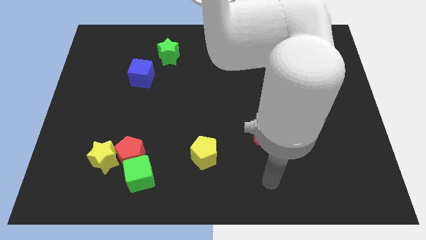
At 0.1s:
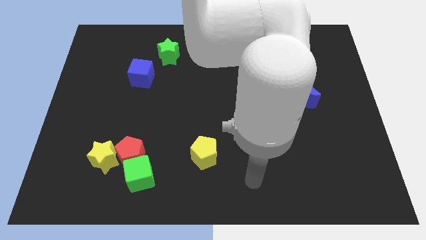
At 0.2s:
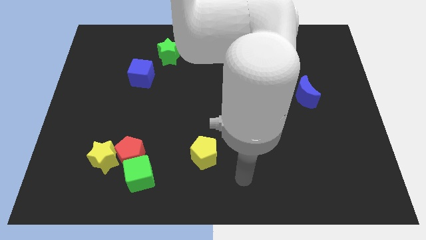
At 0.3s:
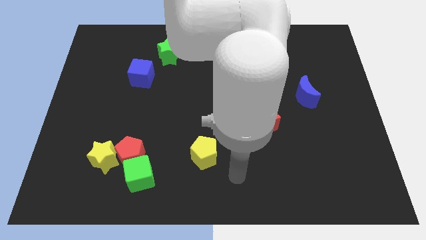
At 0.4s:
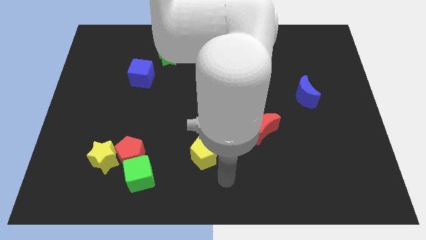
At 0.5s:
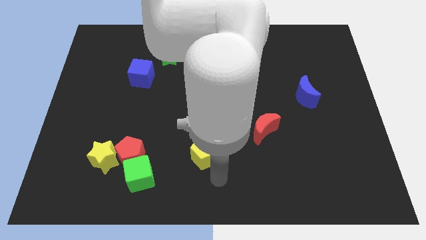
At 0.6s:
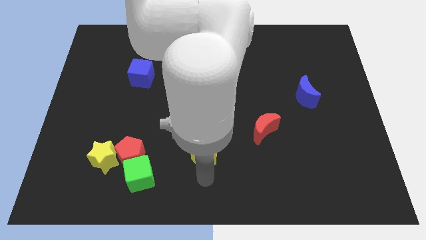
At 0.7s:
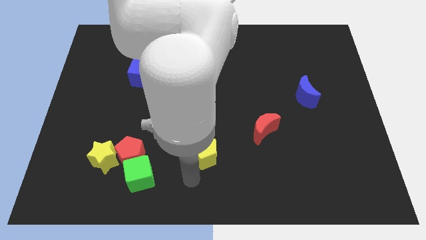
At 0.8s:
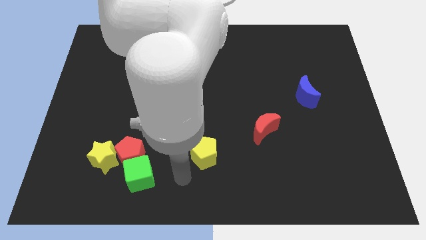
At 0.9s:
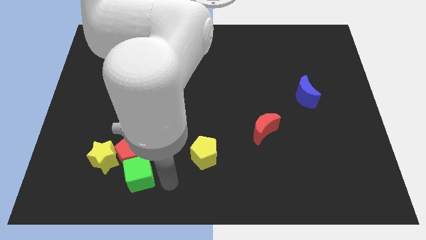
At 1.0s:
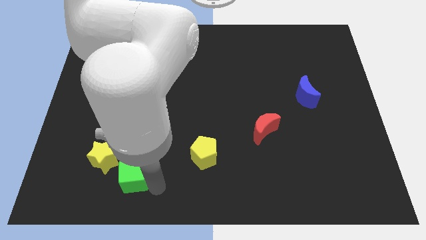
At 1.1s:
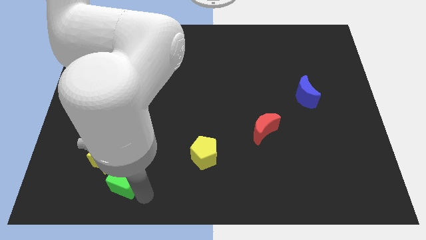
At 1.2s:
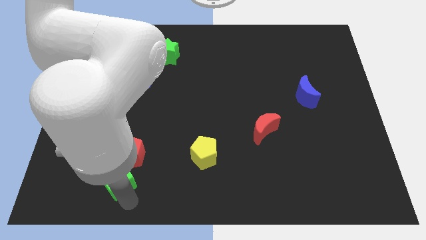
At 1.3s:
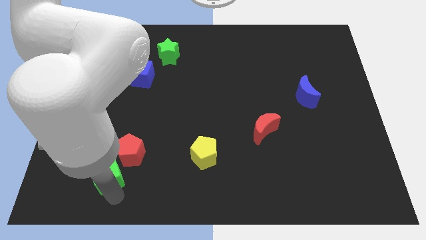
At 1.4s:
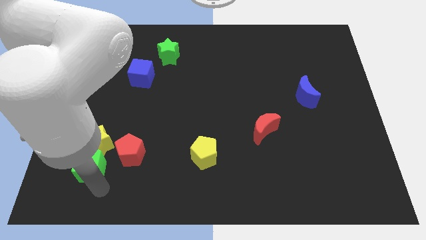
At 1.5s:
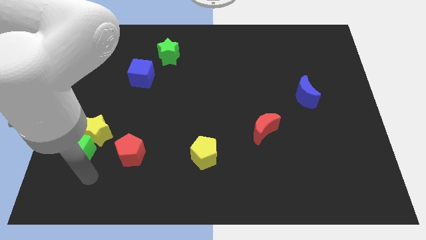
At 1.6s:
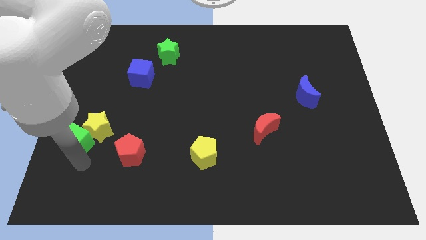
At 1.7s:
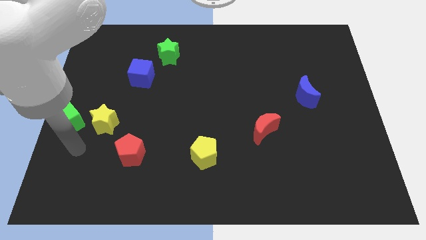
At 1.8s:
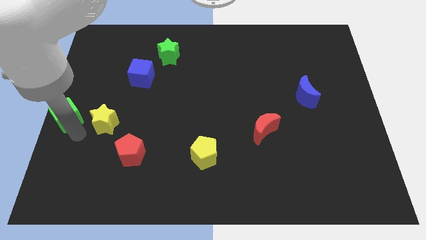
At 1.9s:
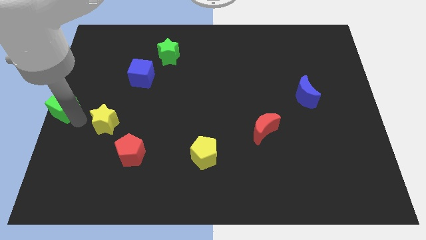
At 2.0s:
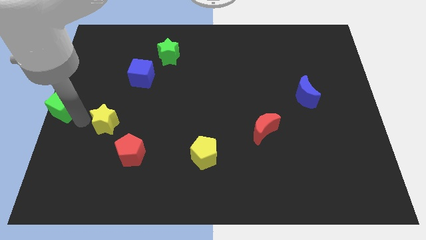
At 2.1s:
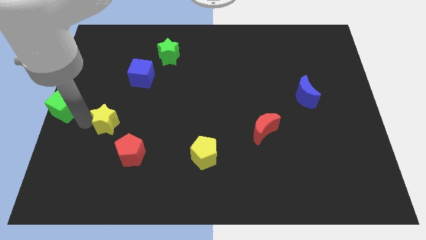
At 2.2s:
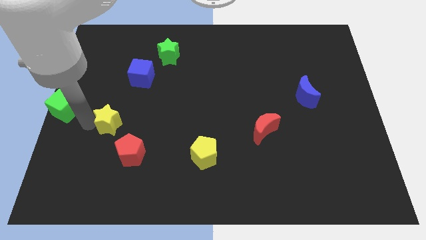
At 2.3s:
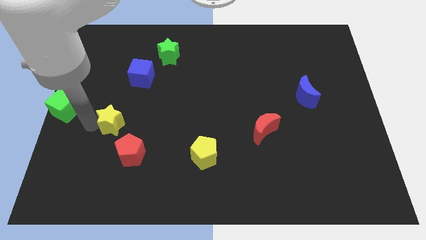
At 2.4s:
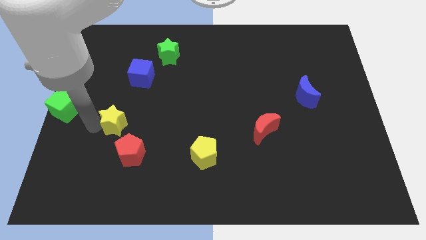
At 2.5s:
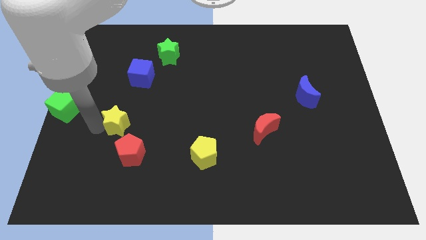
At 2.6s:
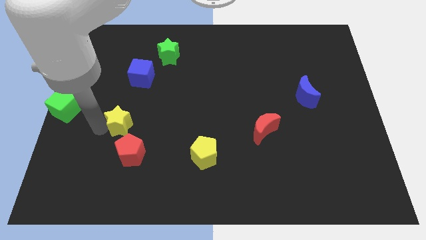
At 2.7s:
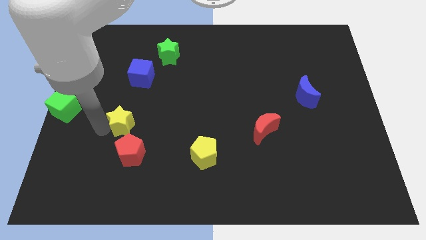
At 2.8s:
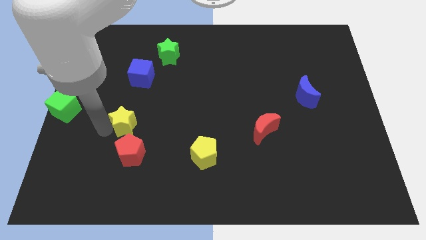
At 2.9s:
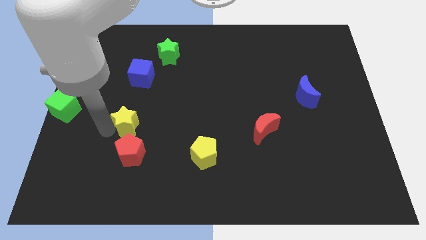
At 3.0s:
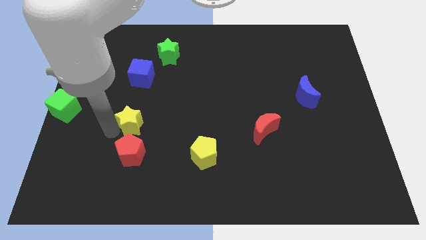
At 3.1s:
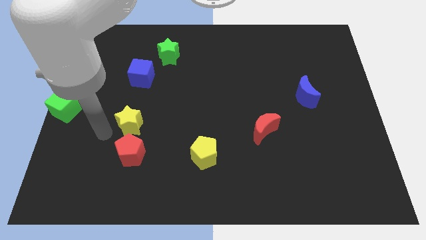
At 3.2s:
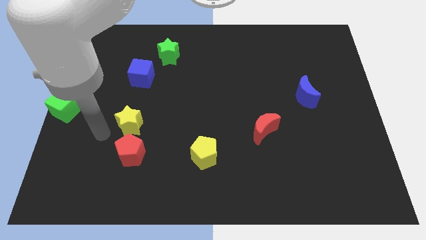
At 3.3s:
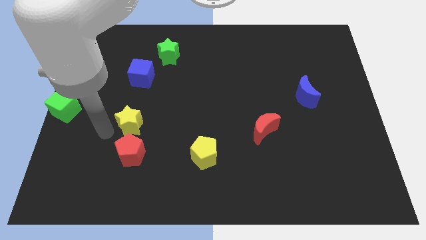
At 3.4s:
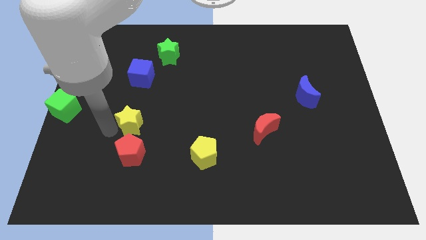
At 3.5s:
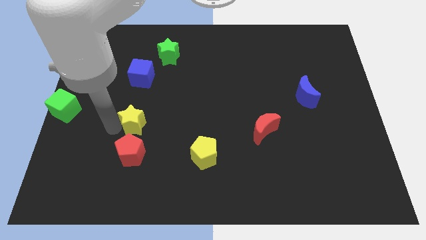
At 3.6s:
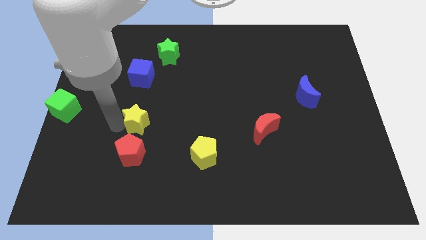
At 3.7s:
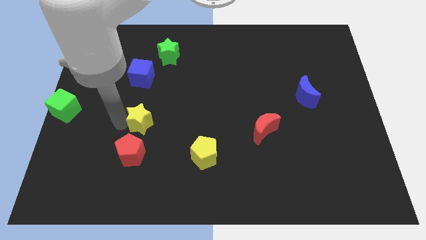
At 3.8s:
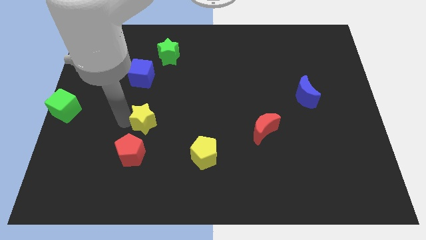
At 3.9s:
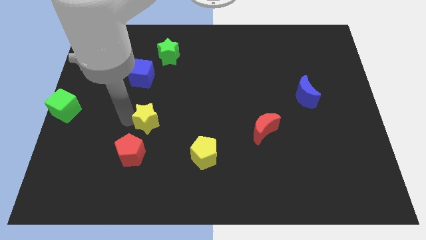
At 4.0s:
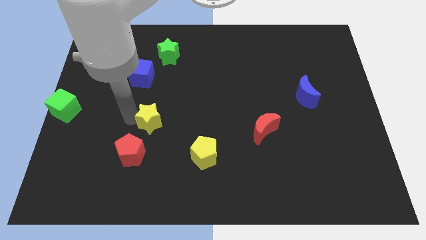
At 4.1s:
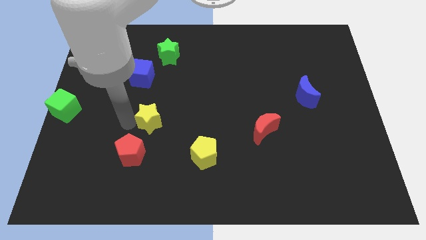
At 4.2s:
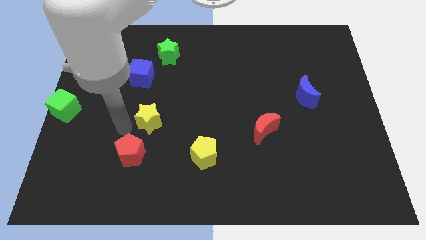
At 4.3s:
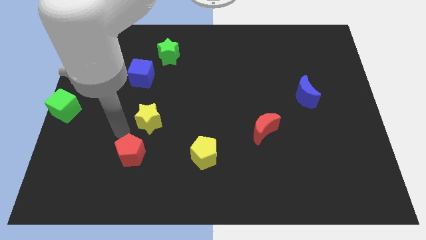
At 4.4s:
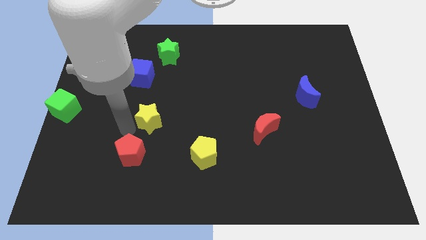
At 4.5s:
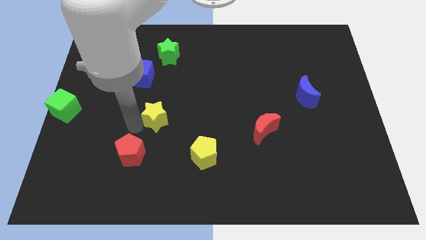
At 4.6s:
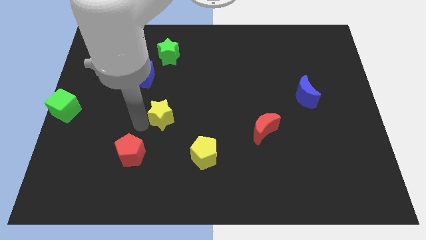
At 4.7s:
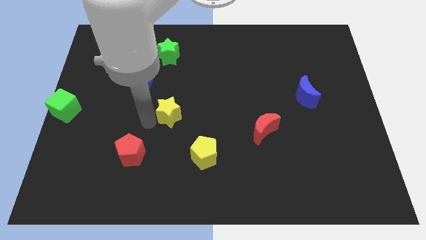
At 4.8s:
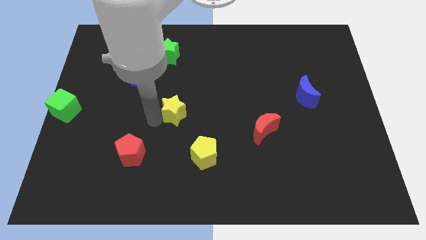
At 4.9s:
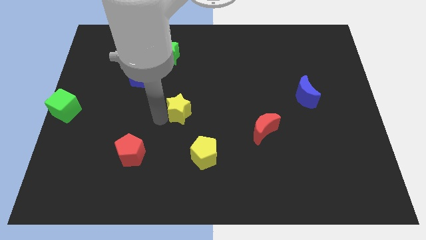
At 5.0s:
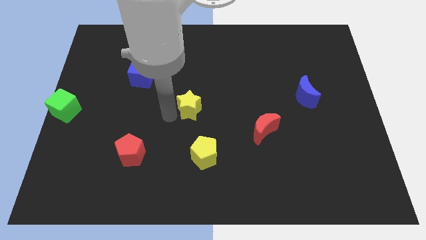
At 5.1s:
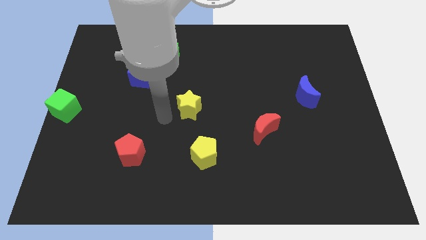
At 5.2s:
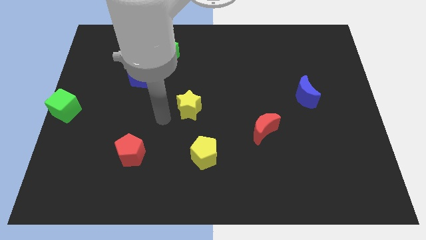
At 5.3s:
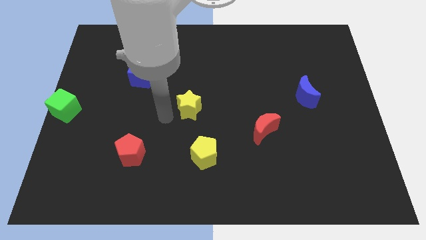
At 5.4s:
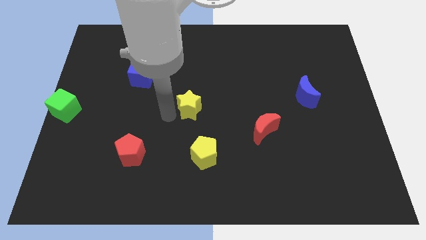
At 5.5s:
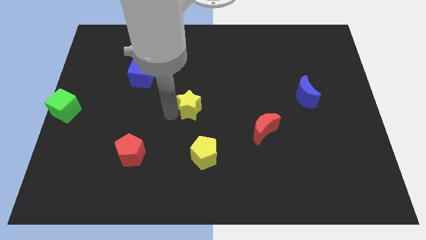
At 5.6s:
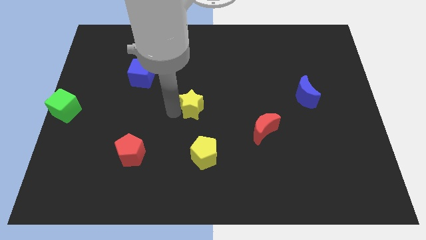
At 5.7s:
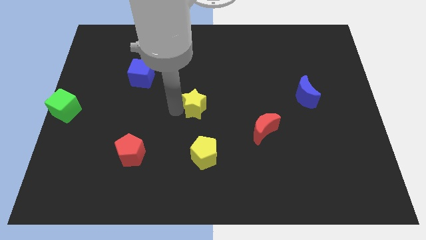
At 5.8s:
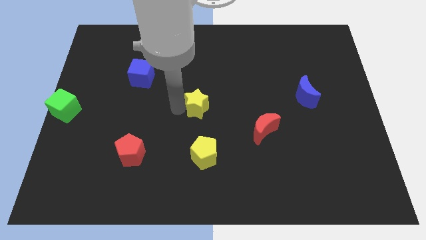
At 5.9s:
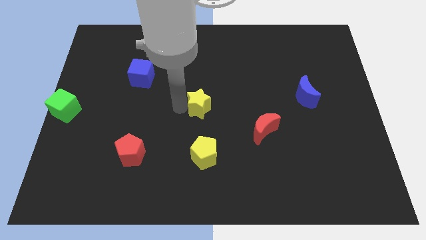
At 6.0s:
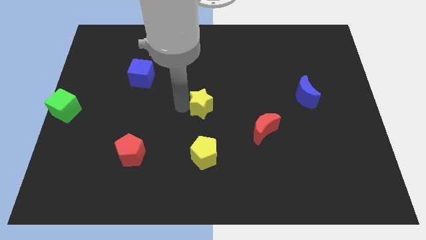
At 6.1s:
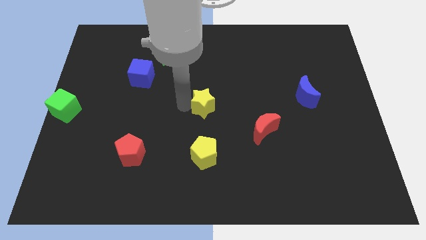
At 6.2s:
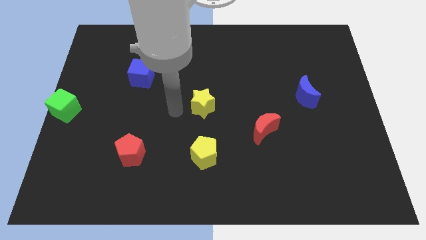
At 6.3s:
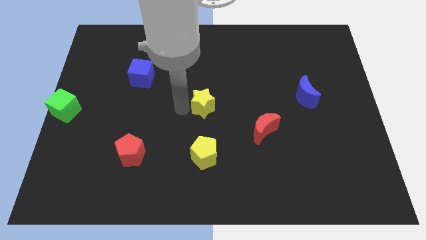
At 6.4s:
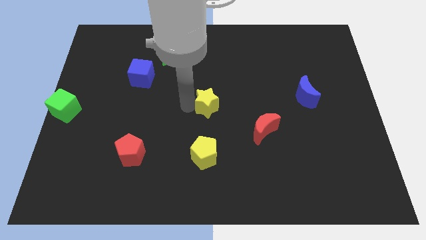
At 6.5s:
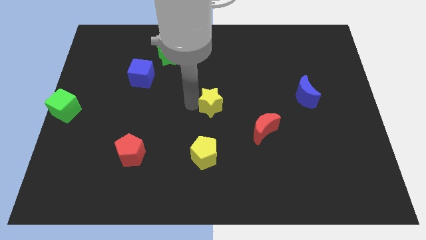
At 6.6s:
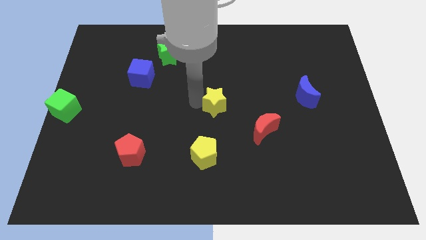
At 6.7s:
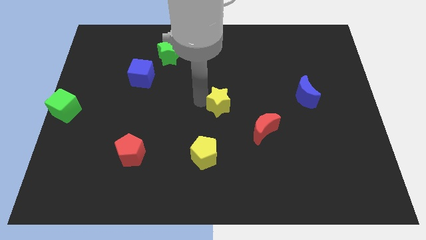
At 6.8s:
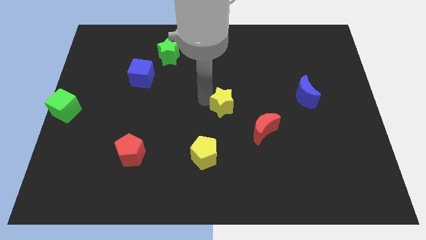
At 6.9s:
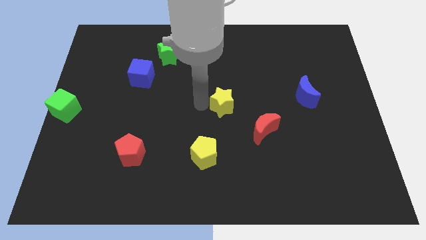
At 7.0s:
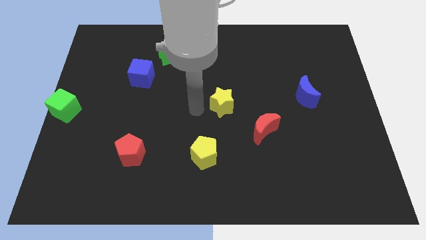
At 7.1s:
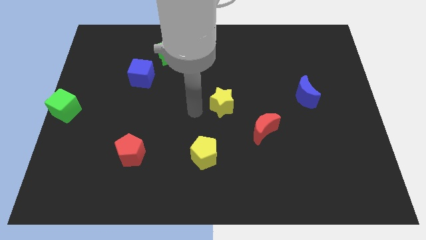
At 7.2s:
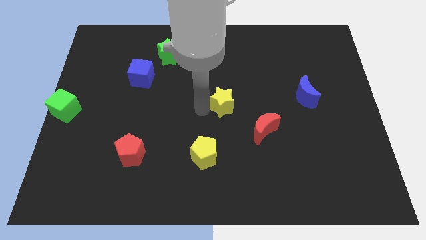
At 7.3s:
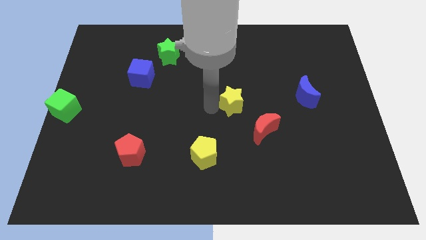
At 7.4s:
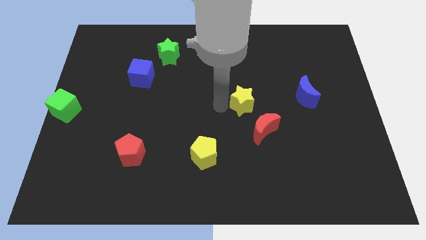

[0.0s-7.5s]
slide the yellow star to the left of the blue moon
